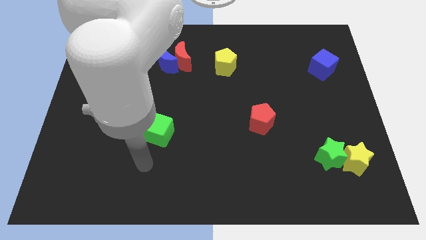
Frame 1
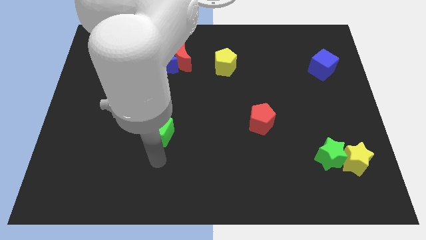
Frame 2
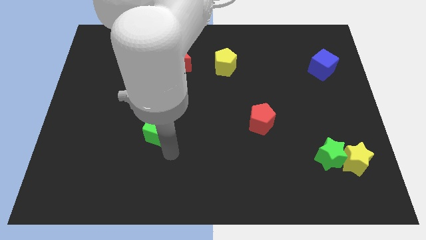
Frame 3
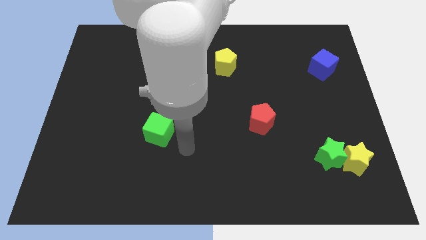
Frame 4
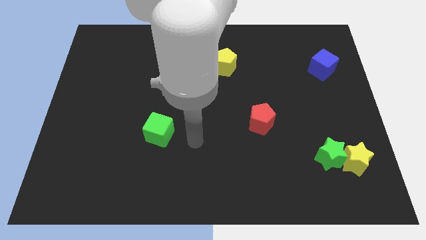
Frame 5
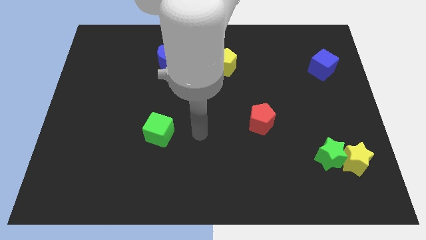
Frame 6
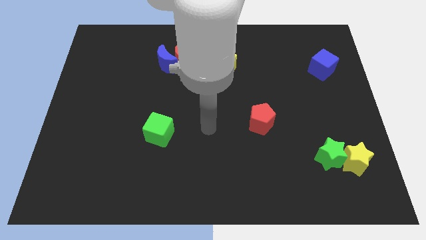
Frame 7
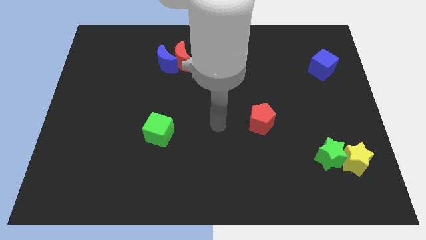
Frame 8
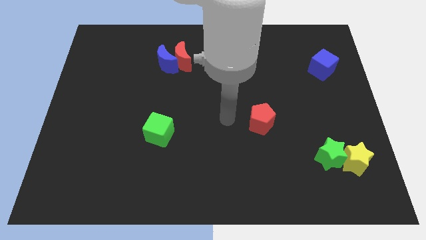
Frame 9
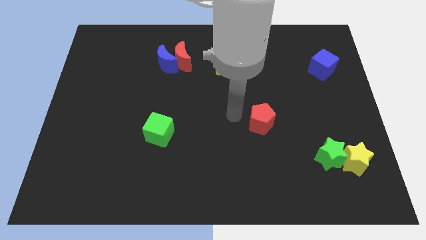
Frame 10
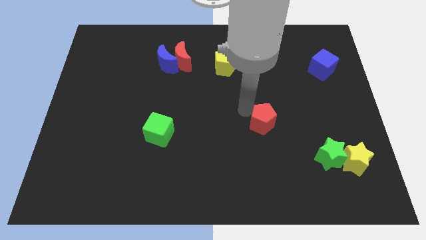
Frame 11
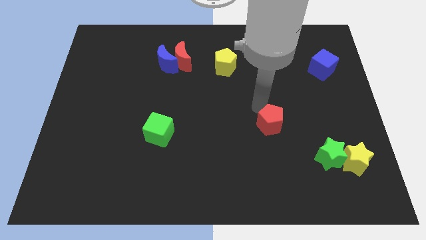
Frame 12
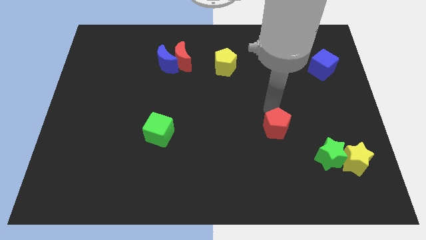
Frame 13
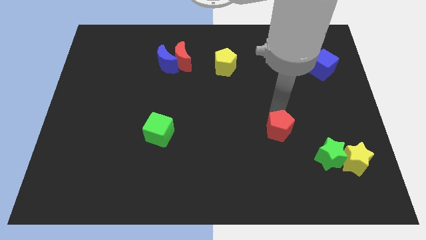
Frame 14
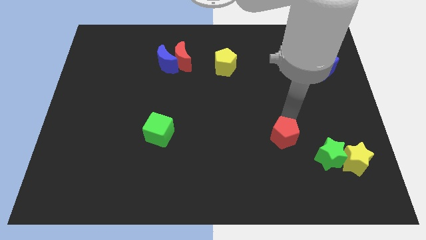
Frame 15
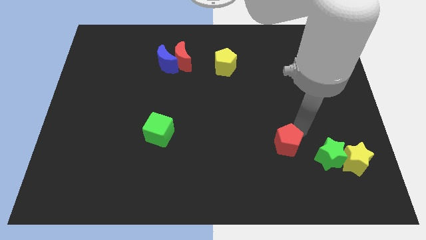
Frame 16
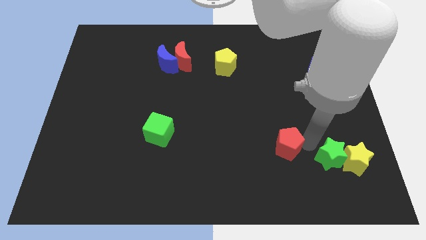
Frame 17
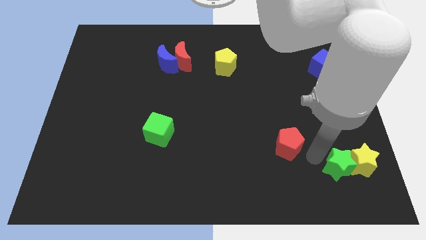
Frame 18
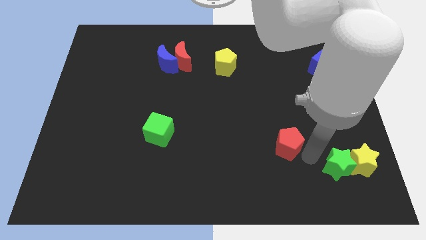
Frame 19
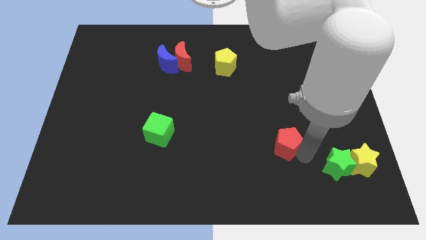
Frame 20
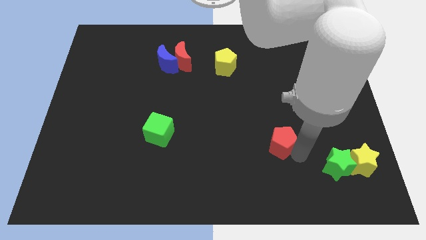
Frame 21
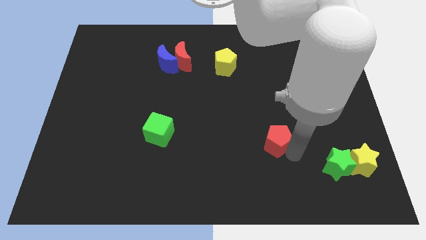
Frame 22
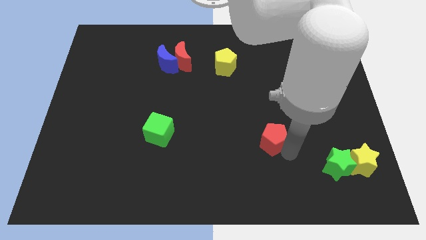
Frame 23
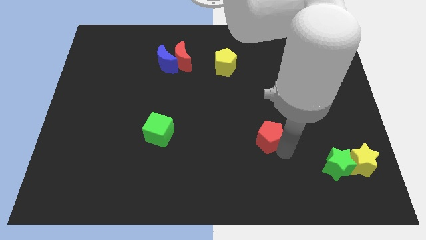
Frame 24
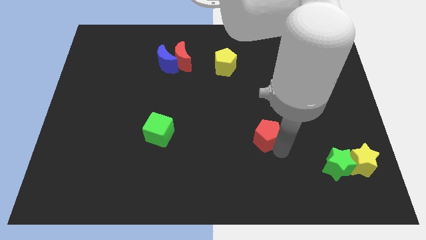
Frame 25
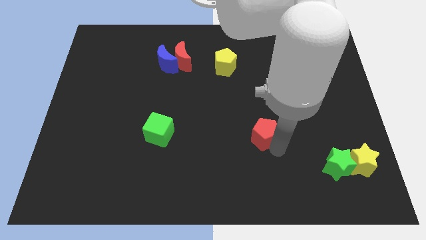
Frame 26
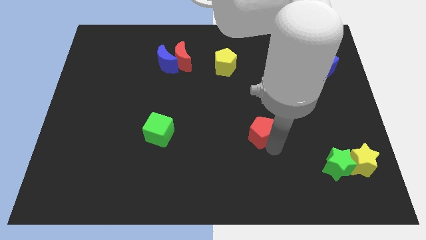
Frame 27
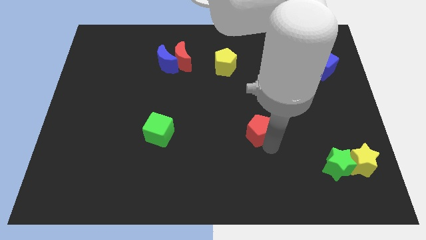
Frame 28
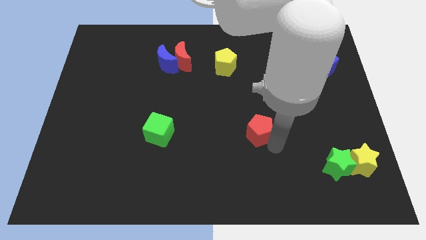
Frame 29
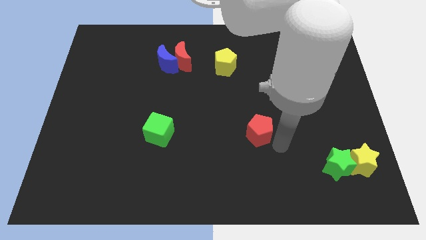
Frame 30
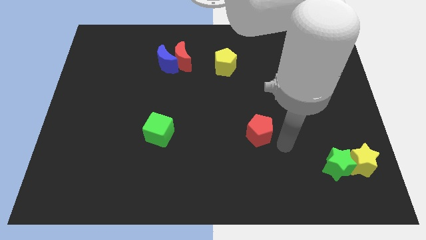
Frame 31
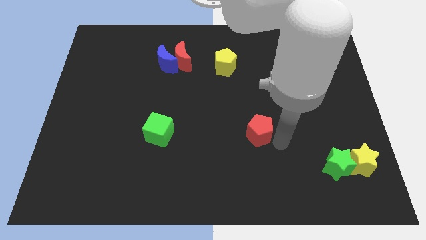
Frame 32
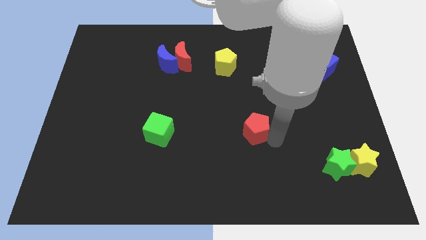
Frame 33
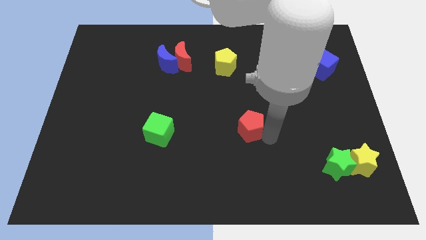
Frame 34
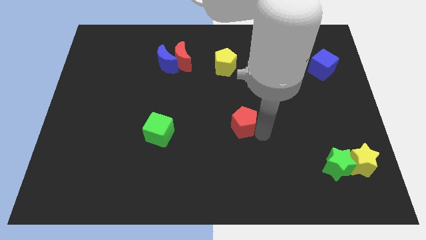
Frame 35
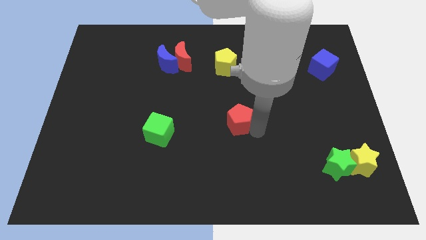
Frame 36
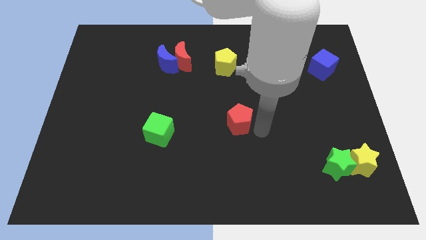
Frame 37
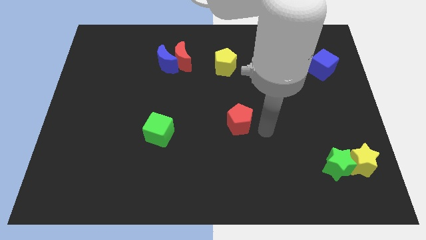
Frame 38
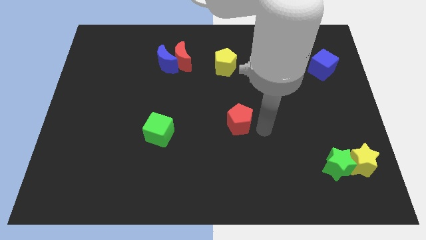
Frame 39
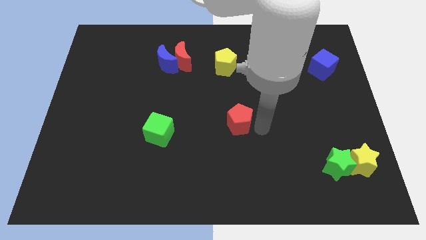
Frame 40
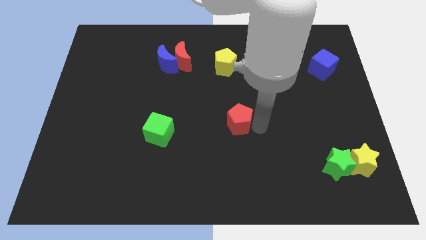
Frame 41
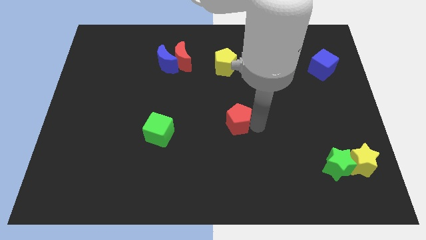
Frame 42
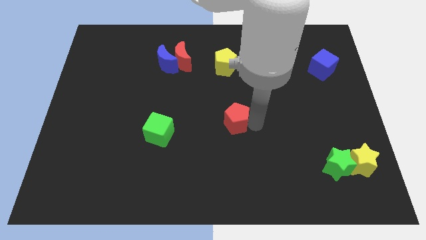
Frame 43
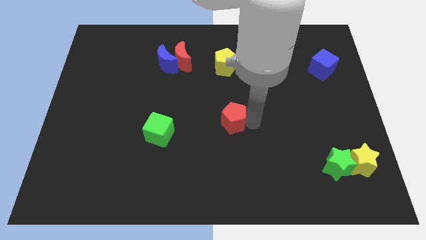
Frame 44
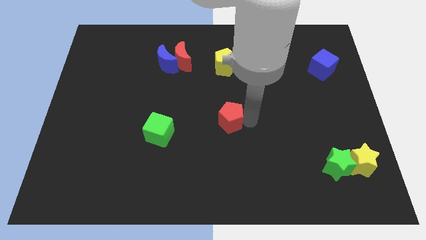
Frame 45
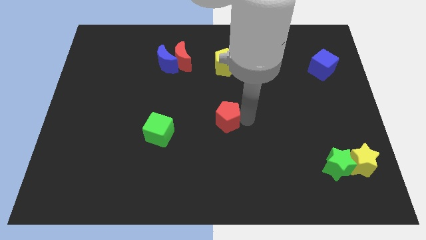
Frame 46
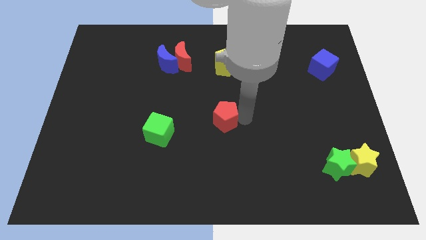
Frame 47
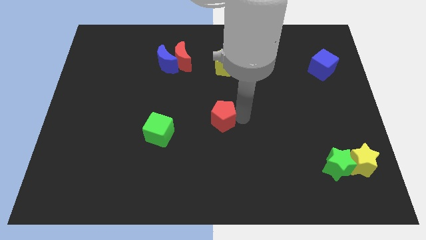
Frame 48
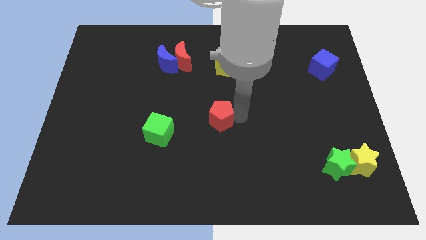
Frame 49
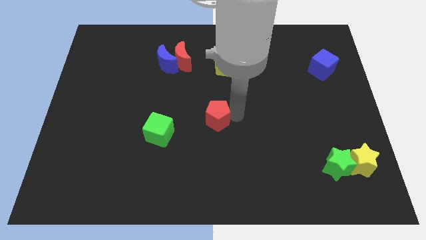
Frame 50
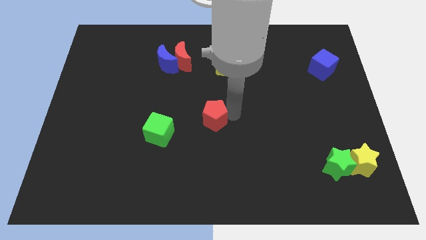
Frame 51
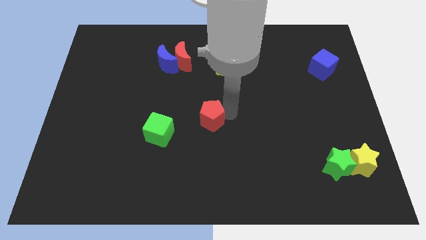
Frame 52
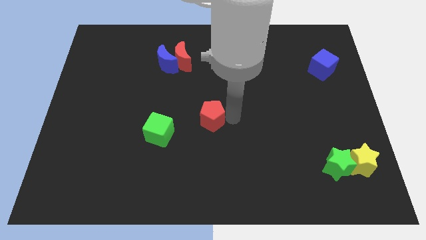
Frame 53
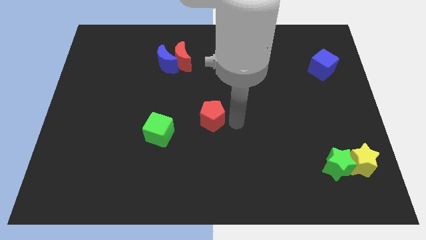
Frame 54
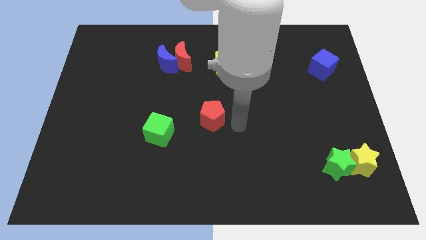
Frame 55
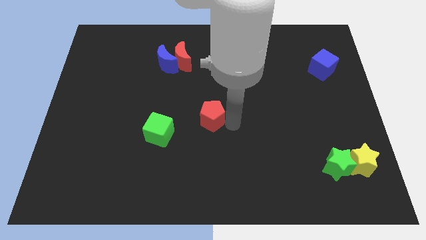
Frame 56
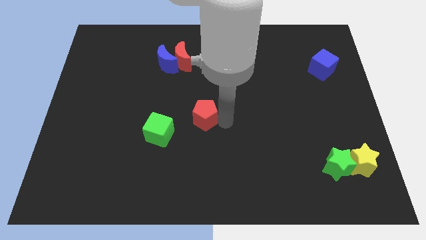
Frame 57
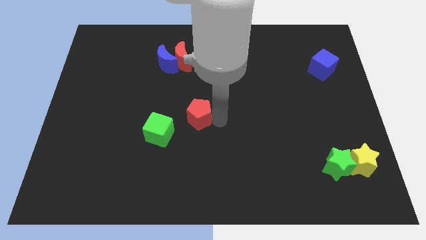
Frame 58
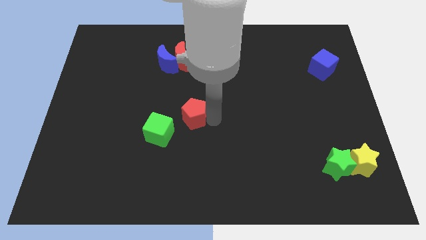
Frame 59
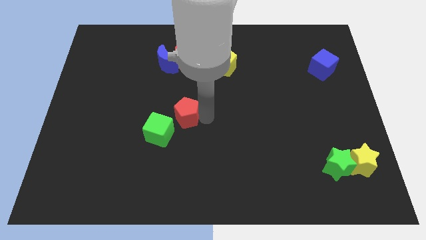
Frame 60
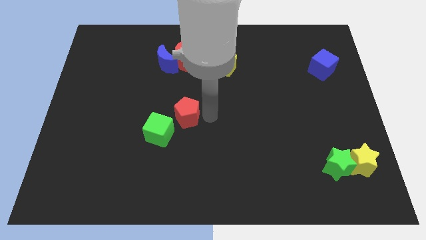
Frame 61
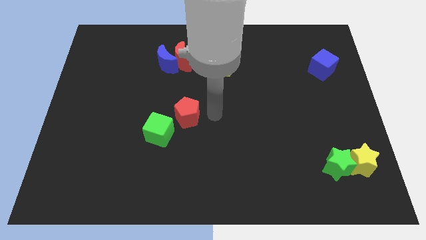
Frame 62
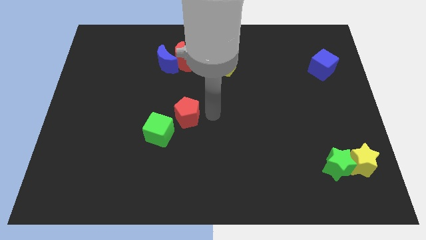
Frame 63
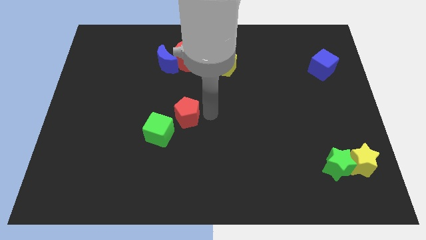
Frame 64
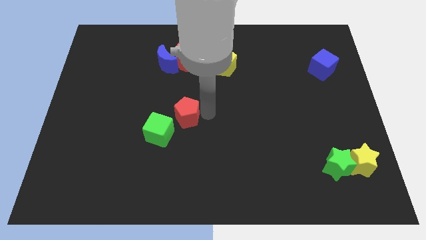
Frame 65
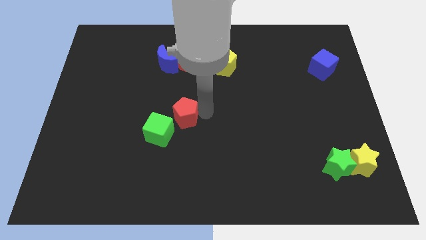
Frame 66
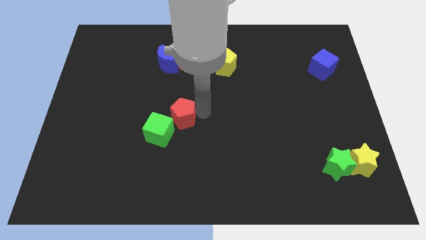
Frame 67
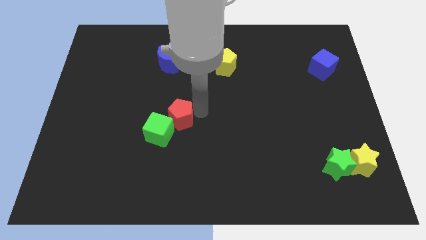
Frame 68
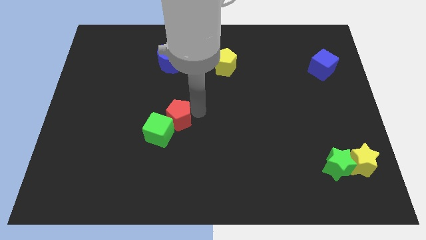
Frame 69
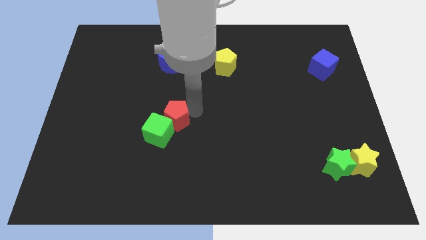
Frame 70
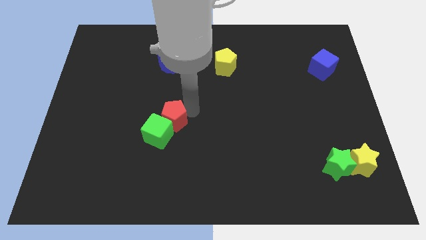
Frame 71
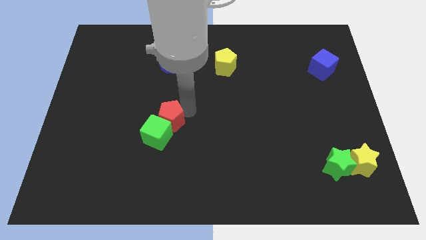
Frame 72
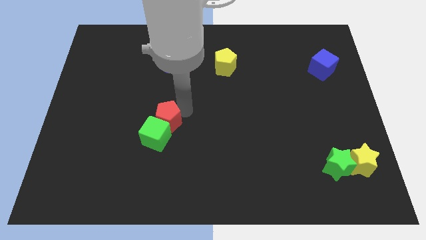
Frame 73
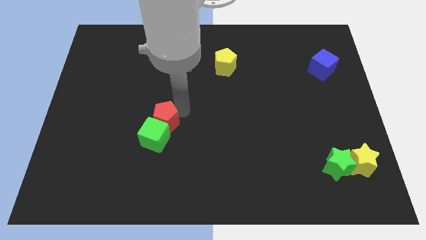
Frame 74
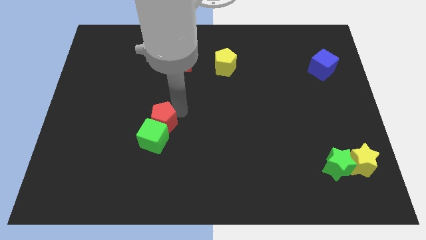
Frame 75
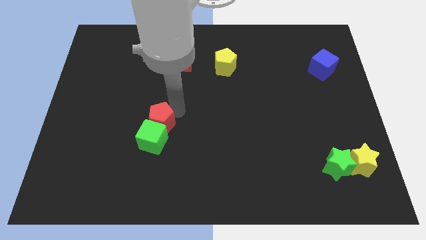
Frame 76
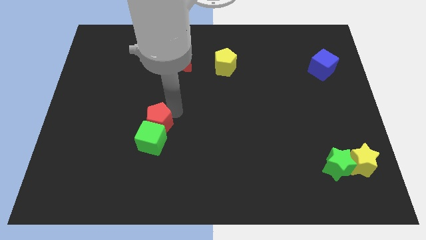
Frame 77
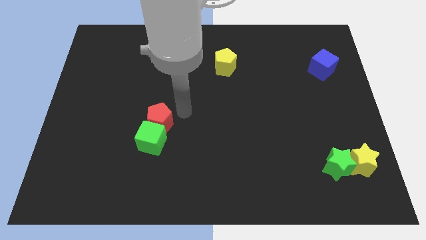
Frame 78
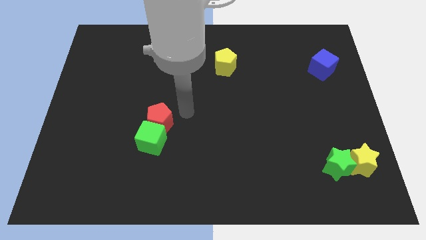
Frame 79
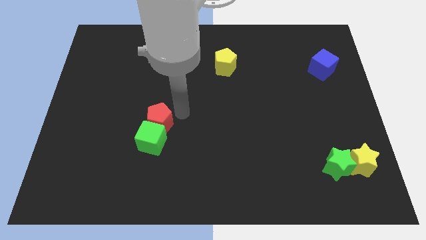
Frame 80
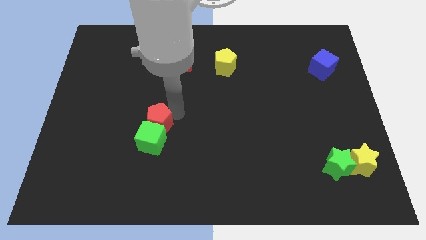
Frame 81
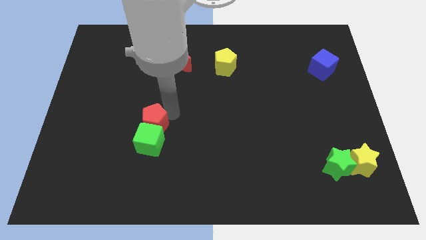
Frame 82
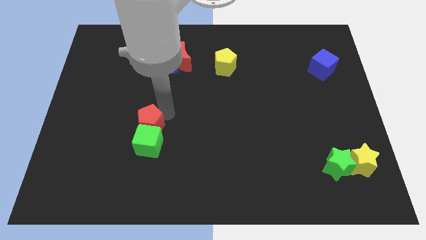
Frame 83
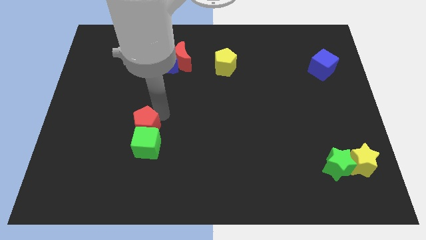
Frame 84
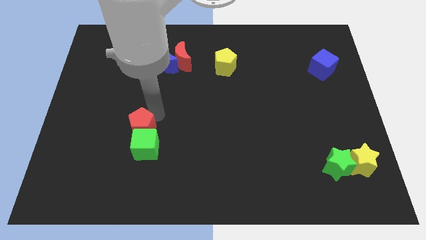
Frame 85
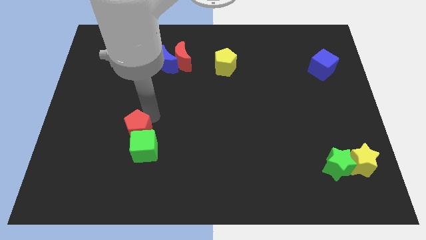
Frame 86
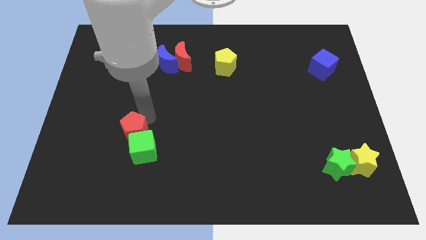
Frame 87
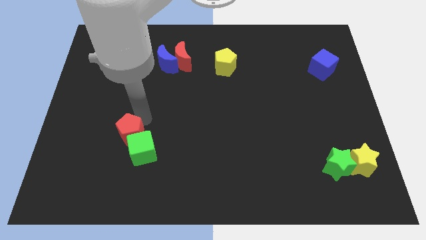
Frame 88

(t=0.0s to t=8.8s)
slide the red pentagon left of the green cube
